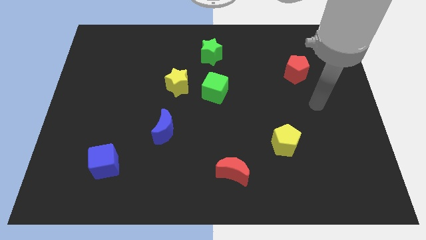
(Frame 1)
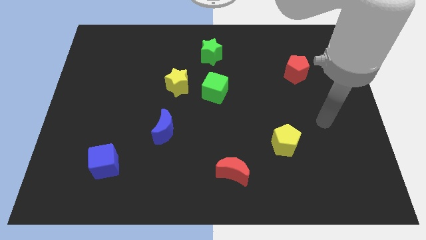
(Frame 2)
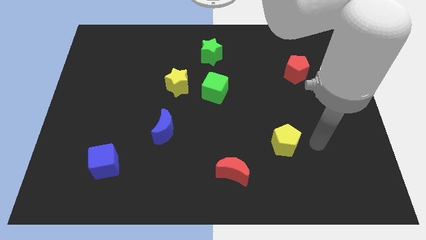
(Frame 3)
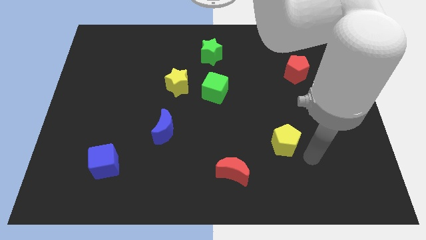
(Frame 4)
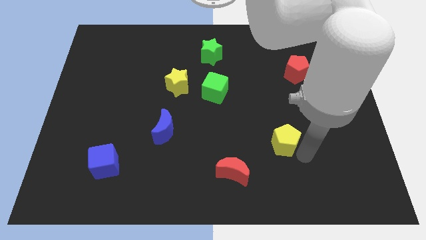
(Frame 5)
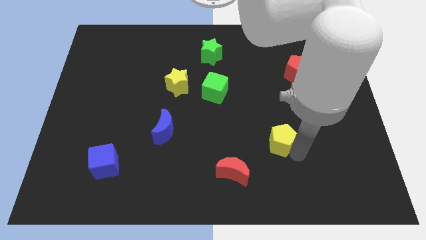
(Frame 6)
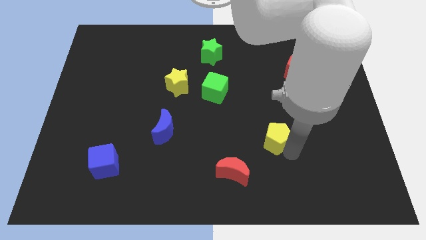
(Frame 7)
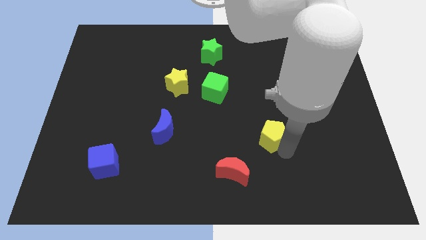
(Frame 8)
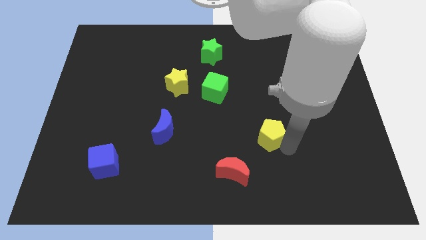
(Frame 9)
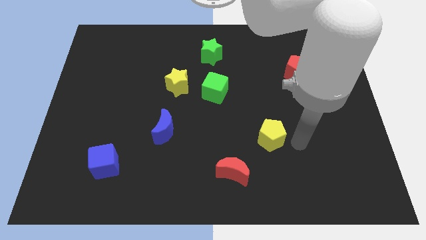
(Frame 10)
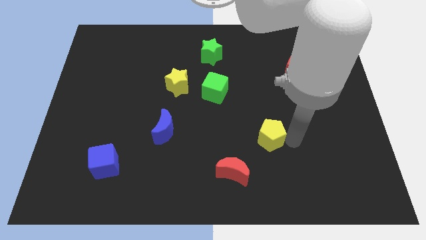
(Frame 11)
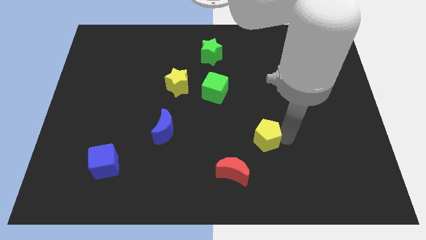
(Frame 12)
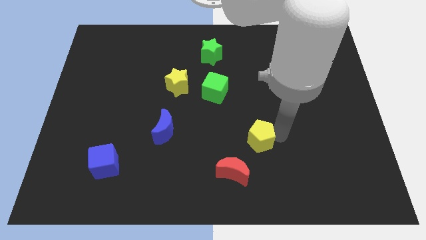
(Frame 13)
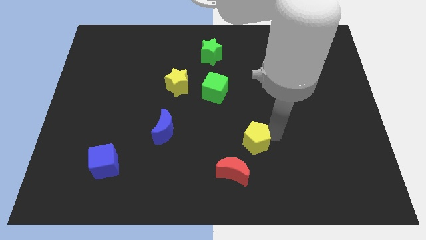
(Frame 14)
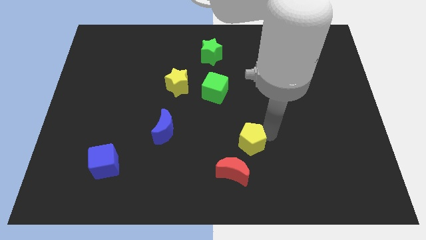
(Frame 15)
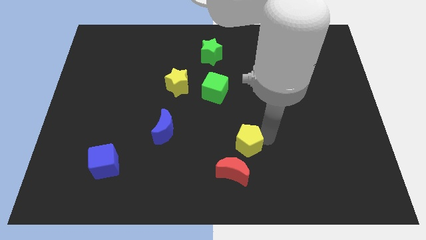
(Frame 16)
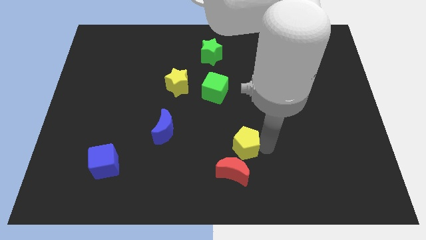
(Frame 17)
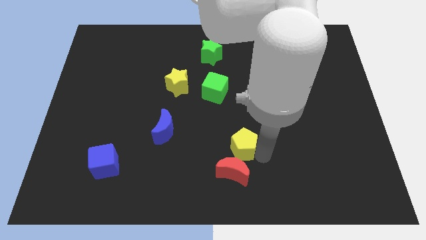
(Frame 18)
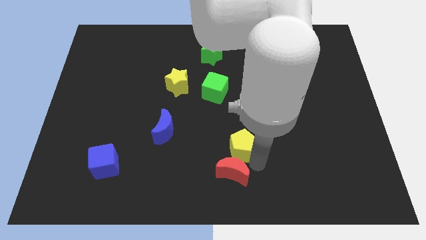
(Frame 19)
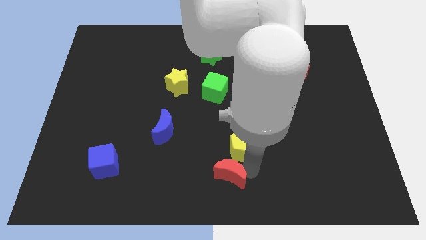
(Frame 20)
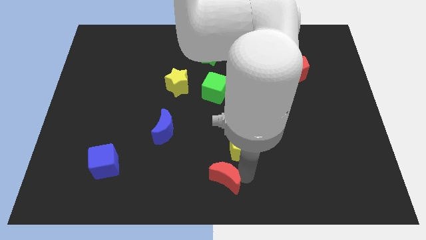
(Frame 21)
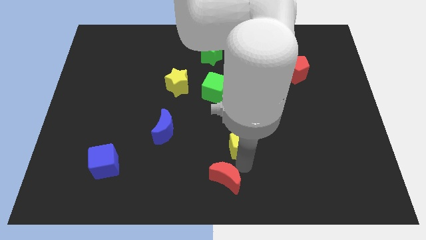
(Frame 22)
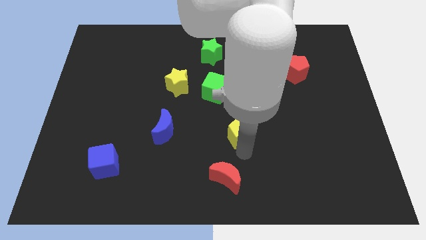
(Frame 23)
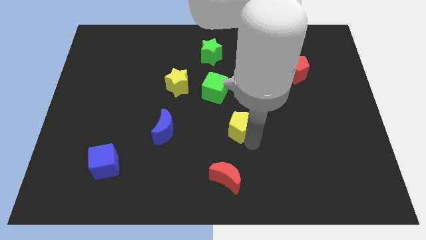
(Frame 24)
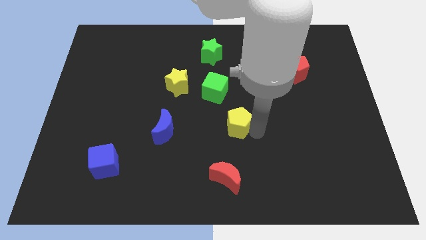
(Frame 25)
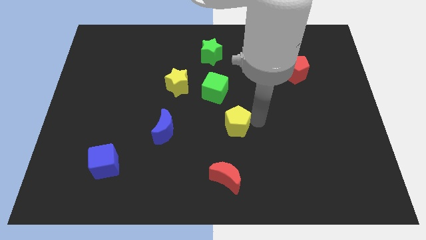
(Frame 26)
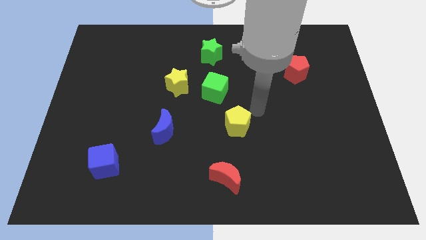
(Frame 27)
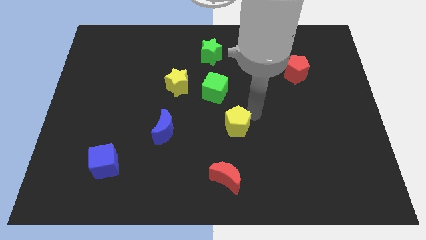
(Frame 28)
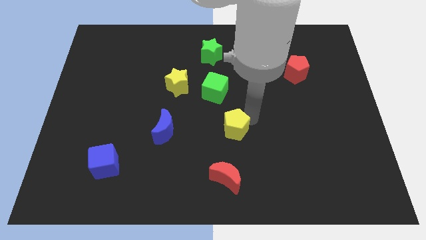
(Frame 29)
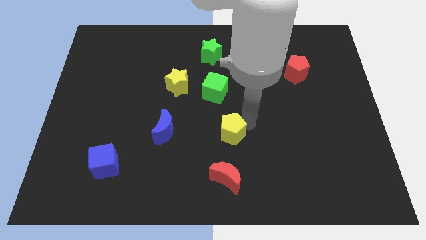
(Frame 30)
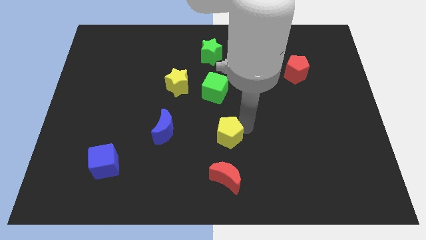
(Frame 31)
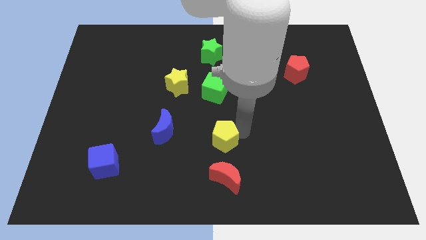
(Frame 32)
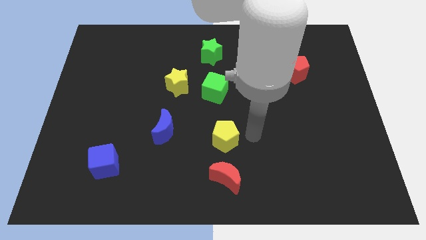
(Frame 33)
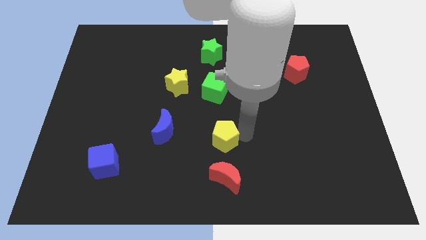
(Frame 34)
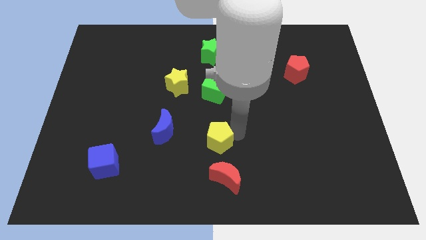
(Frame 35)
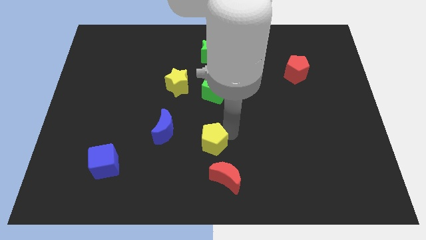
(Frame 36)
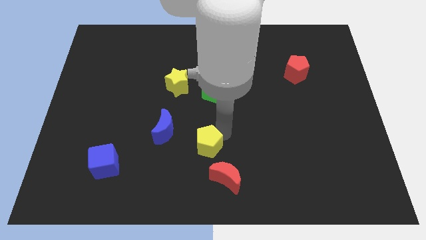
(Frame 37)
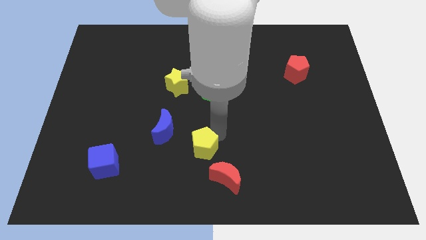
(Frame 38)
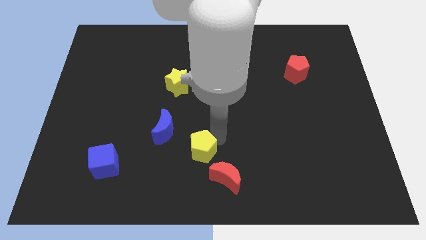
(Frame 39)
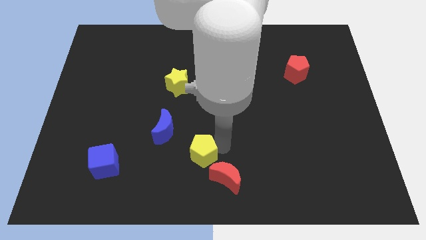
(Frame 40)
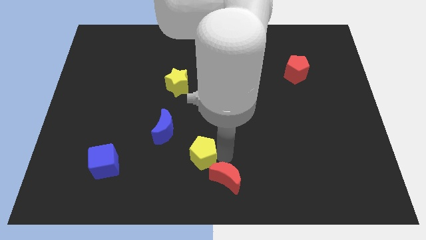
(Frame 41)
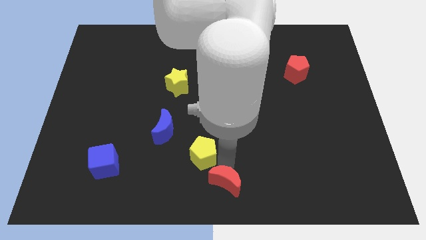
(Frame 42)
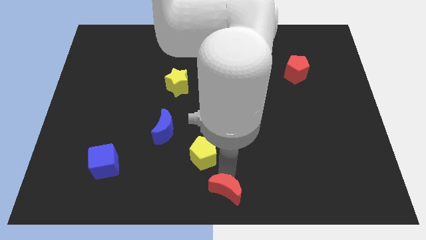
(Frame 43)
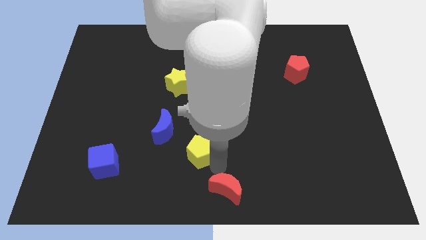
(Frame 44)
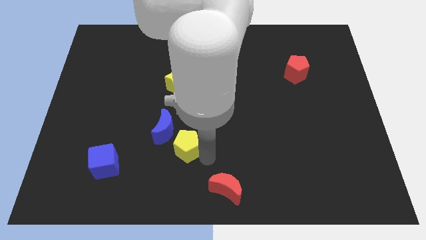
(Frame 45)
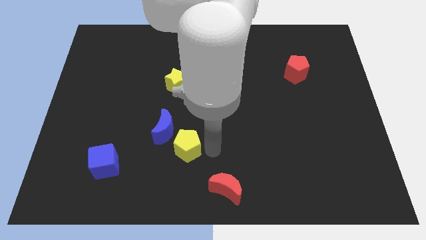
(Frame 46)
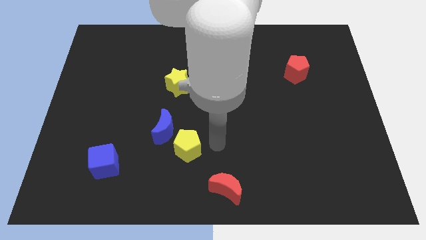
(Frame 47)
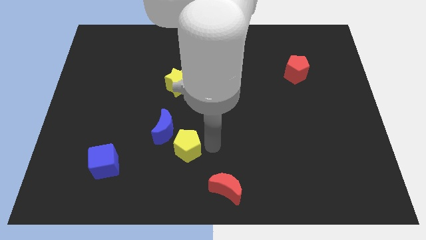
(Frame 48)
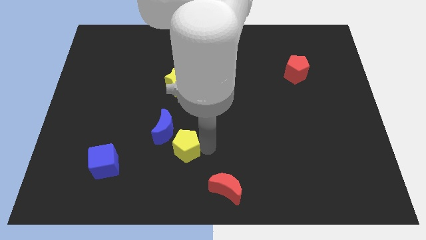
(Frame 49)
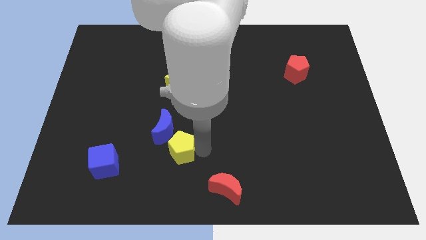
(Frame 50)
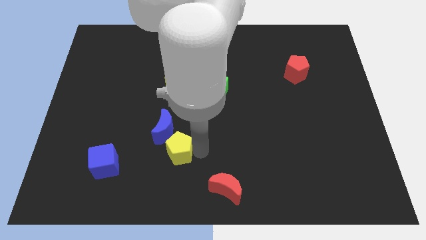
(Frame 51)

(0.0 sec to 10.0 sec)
push the yellow pentagon to the right side of the blue cube

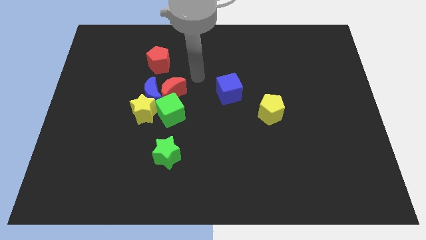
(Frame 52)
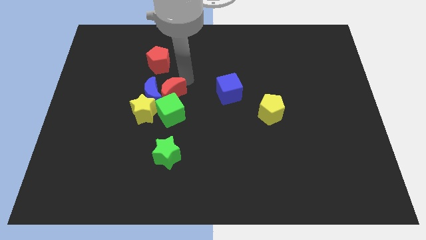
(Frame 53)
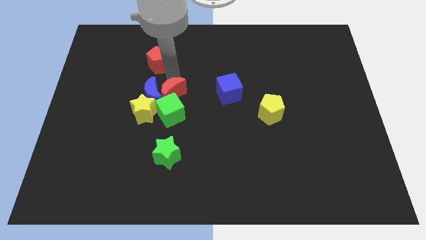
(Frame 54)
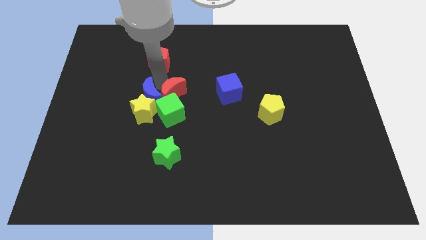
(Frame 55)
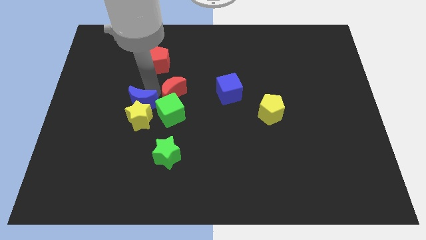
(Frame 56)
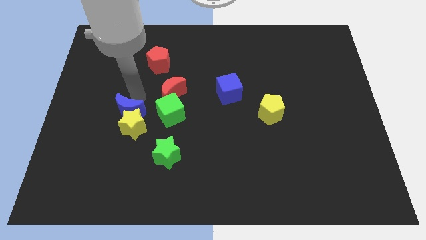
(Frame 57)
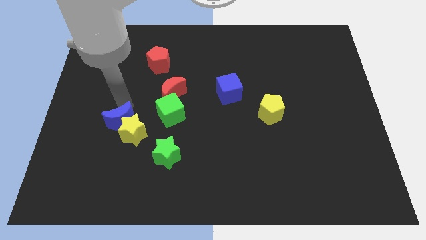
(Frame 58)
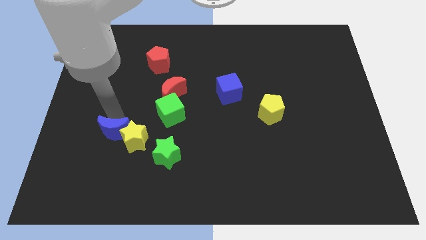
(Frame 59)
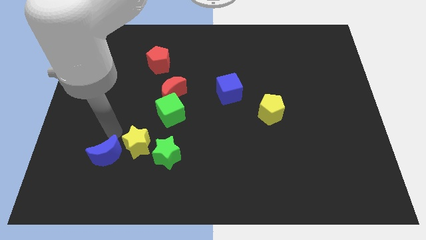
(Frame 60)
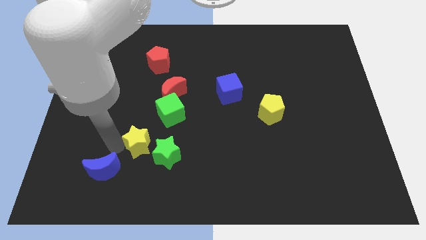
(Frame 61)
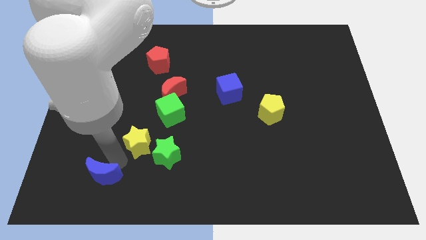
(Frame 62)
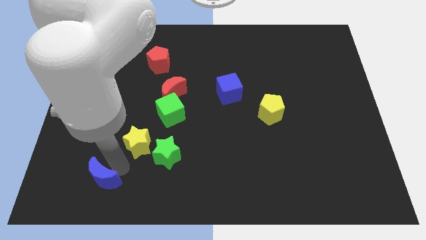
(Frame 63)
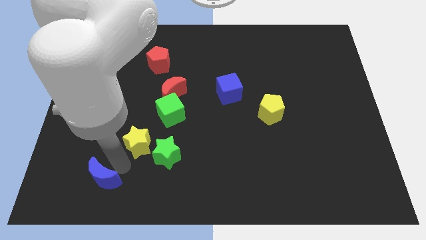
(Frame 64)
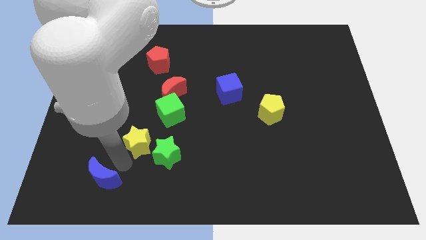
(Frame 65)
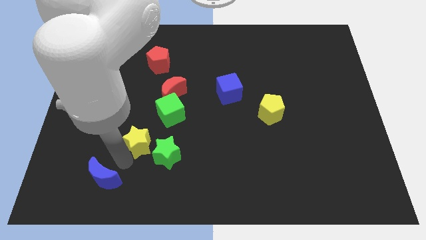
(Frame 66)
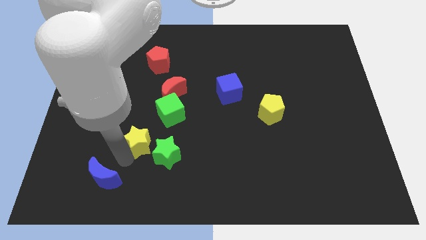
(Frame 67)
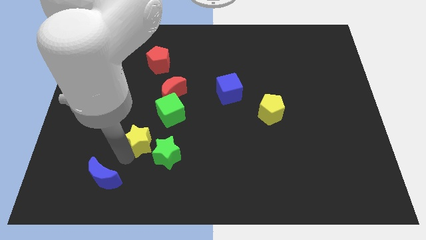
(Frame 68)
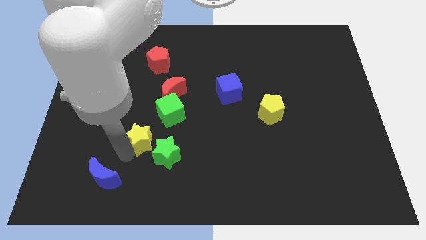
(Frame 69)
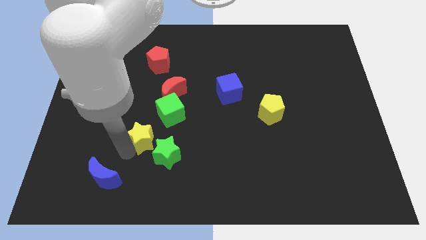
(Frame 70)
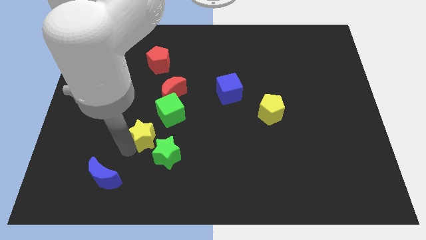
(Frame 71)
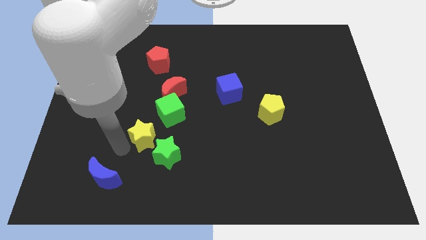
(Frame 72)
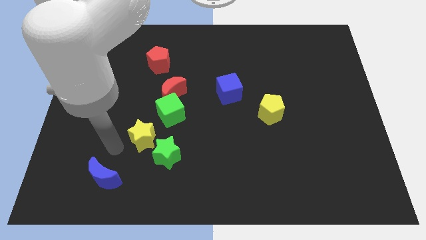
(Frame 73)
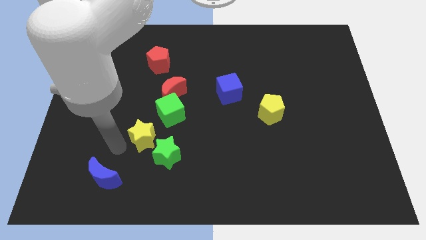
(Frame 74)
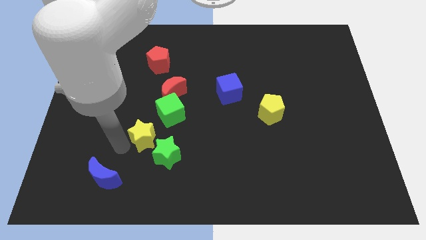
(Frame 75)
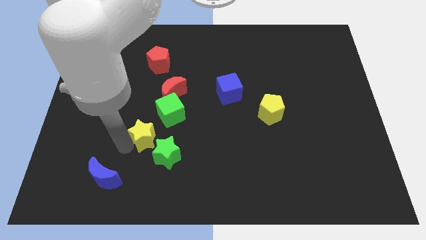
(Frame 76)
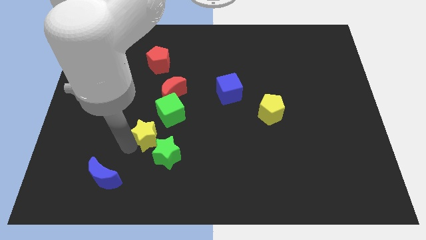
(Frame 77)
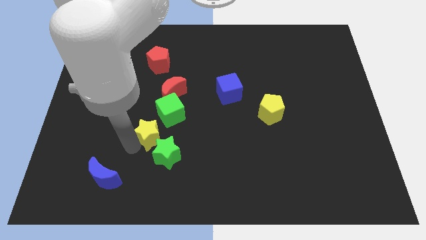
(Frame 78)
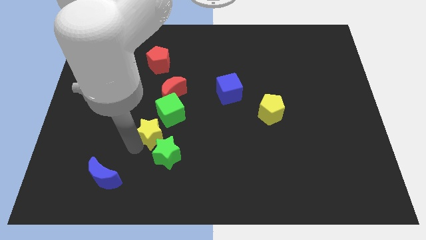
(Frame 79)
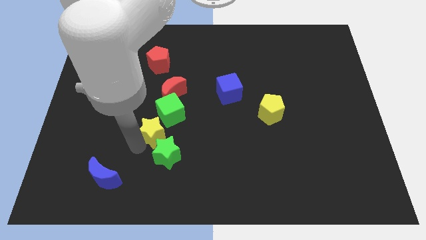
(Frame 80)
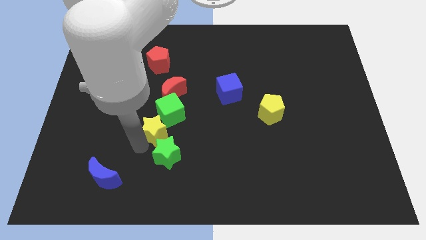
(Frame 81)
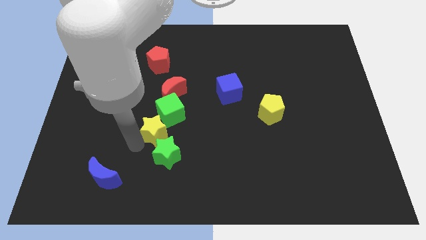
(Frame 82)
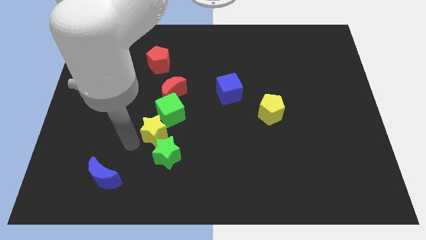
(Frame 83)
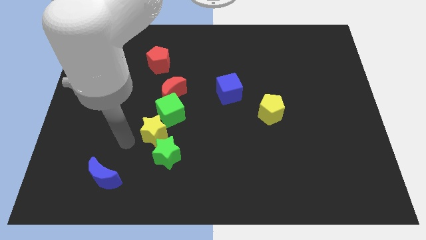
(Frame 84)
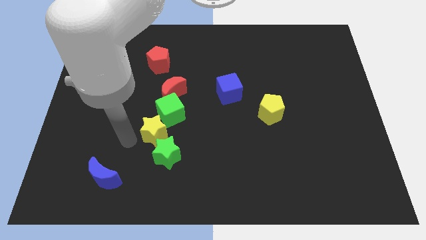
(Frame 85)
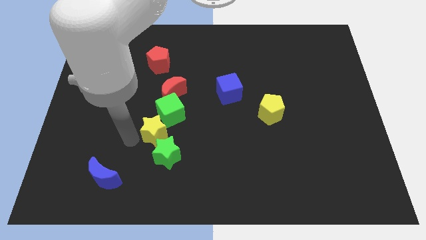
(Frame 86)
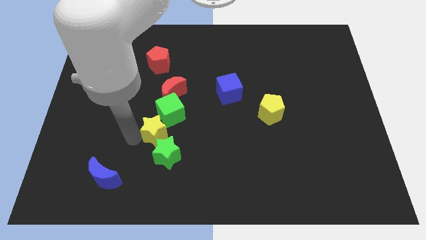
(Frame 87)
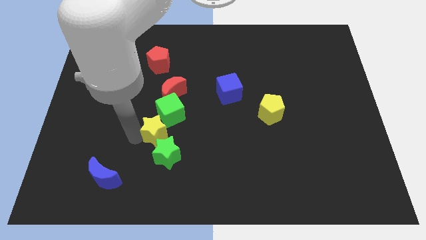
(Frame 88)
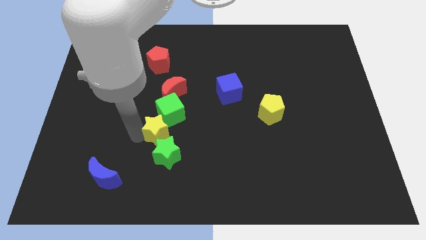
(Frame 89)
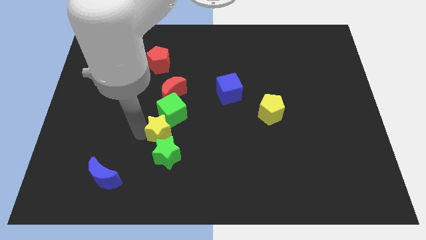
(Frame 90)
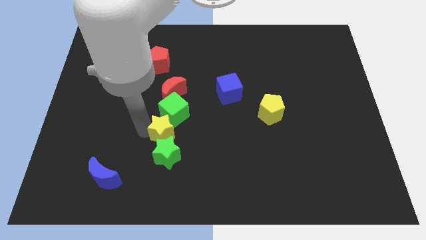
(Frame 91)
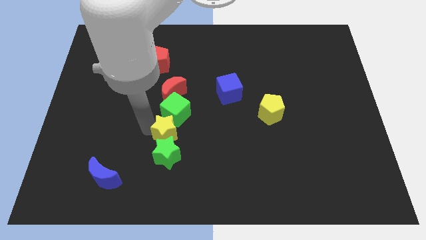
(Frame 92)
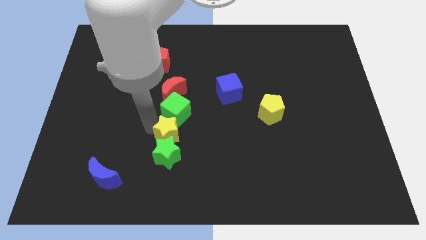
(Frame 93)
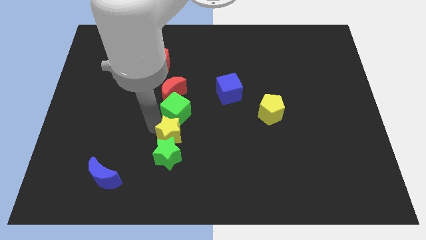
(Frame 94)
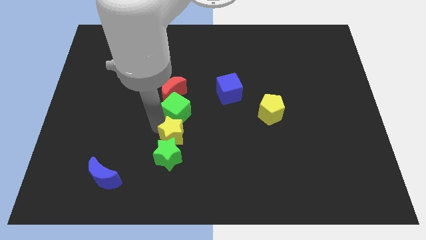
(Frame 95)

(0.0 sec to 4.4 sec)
slide the yellow star to the bottom right of the green cube
